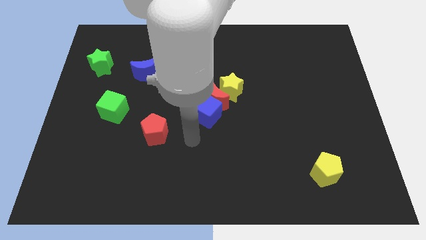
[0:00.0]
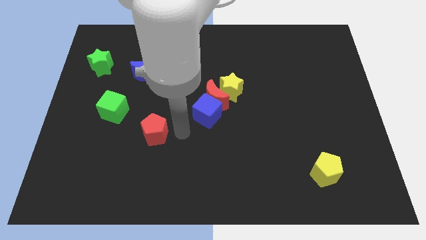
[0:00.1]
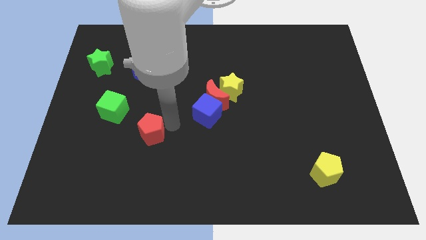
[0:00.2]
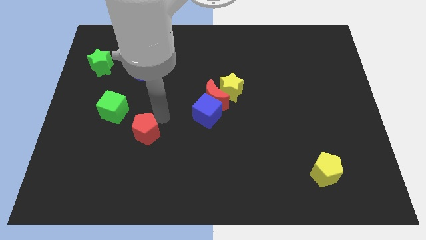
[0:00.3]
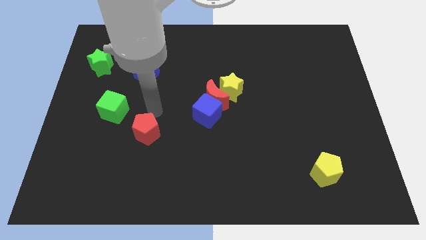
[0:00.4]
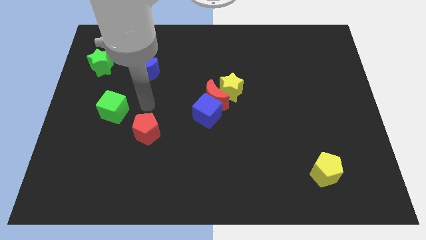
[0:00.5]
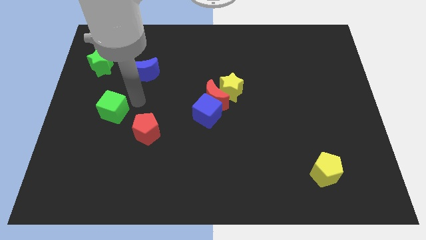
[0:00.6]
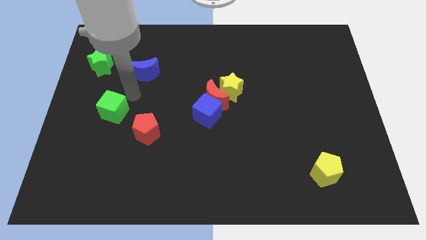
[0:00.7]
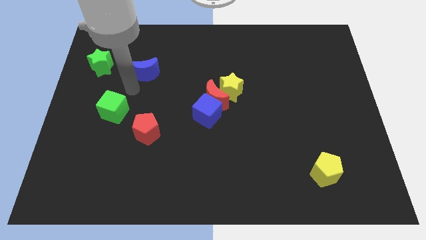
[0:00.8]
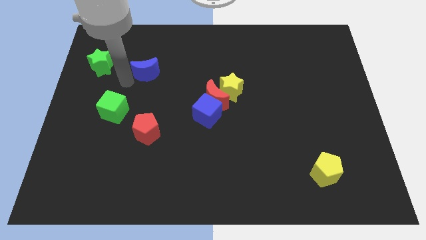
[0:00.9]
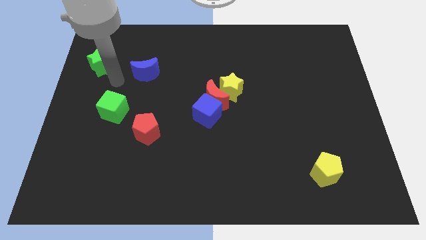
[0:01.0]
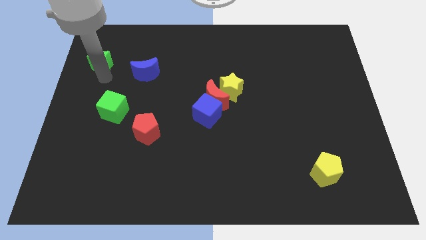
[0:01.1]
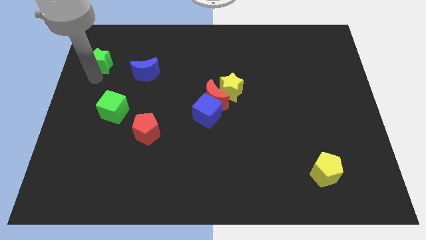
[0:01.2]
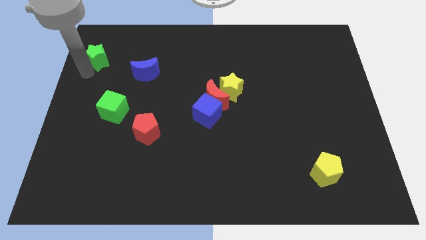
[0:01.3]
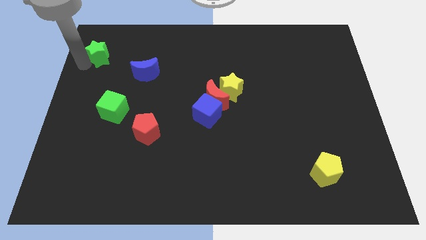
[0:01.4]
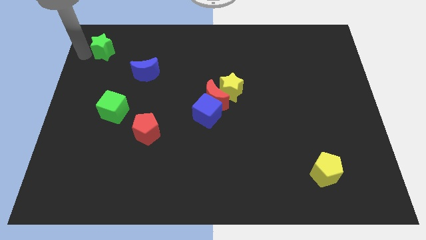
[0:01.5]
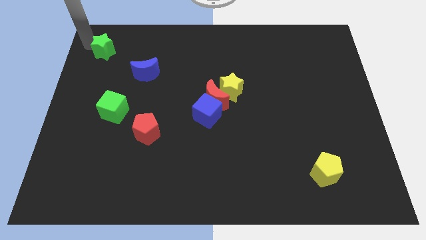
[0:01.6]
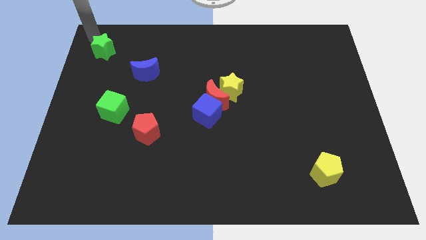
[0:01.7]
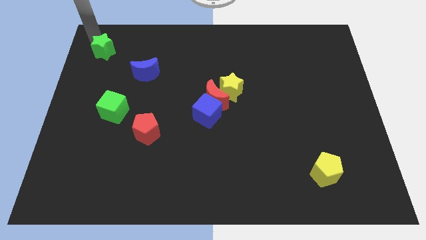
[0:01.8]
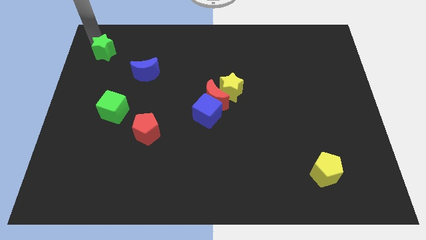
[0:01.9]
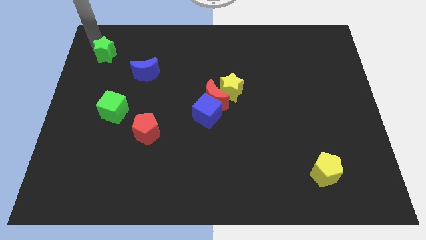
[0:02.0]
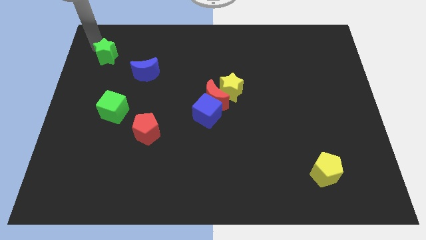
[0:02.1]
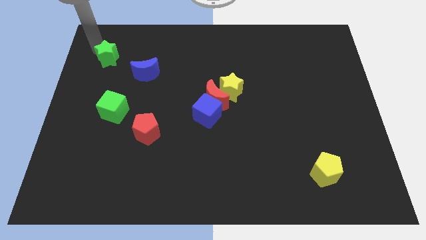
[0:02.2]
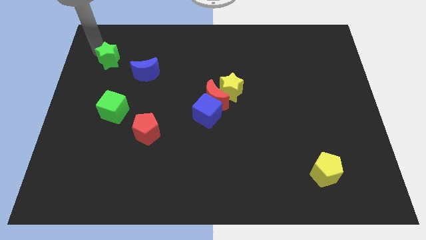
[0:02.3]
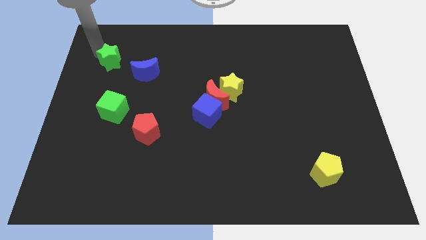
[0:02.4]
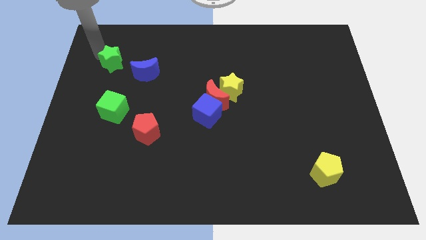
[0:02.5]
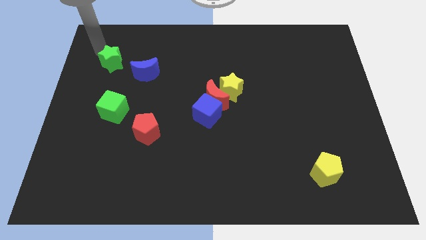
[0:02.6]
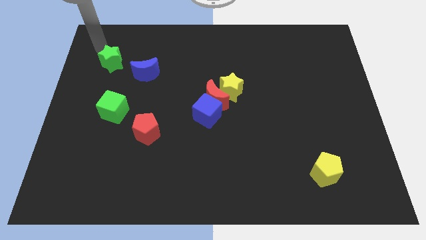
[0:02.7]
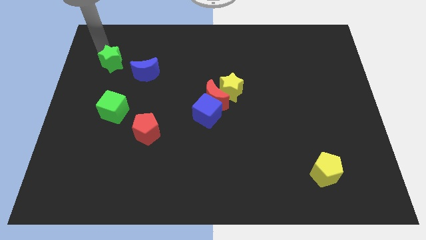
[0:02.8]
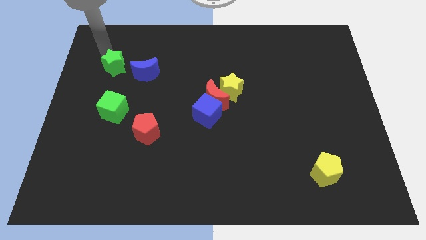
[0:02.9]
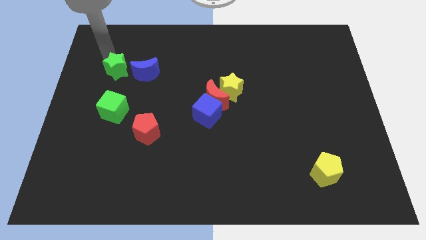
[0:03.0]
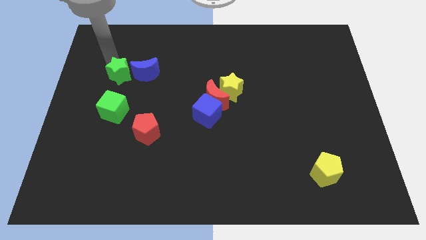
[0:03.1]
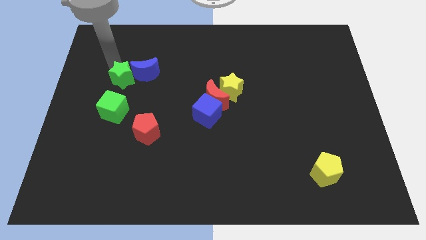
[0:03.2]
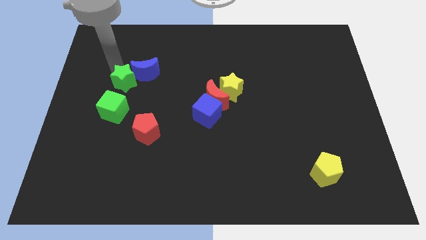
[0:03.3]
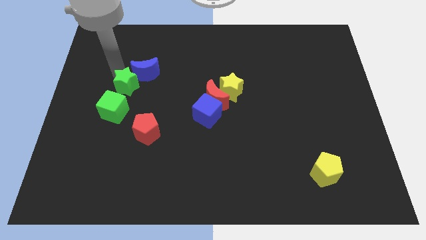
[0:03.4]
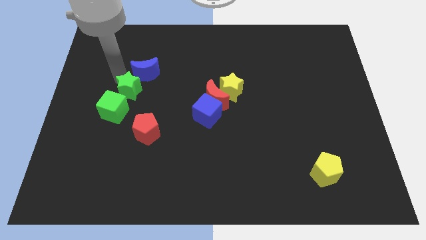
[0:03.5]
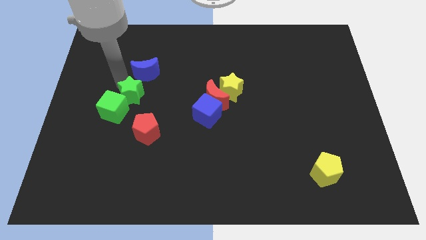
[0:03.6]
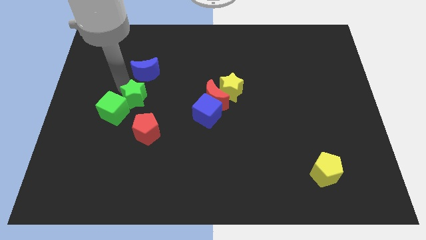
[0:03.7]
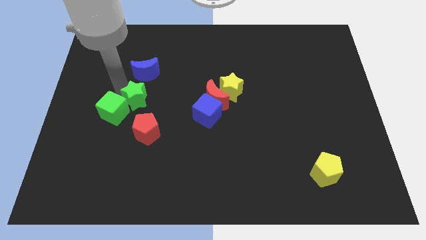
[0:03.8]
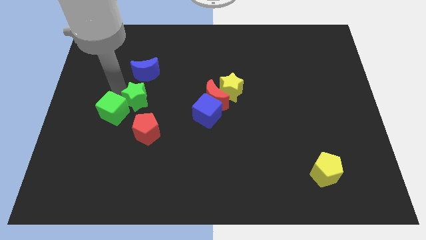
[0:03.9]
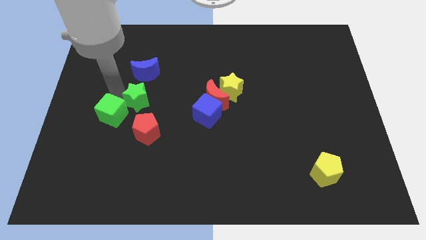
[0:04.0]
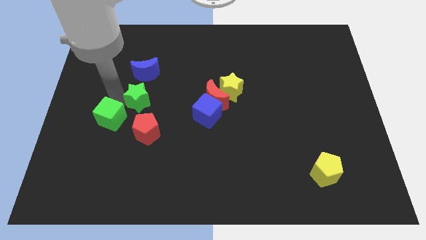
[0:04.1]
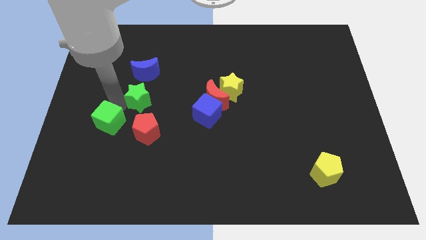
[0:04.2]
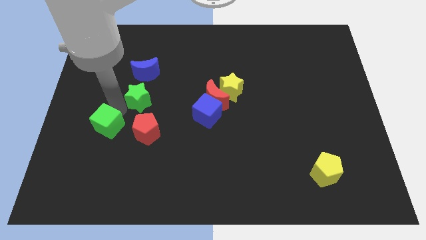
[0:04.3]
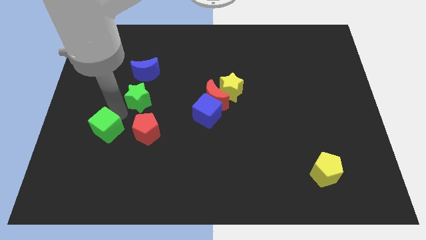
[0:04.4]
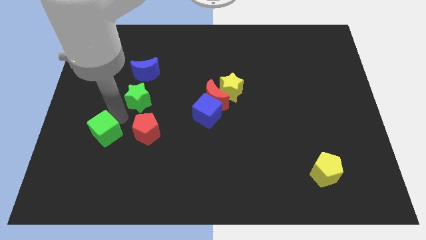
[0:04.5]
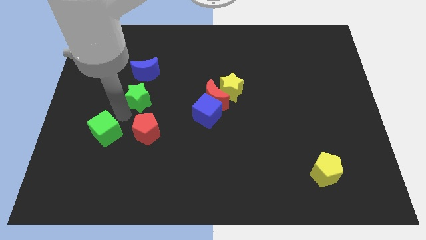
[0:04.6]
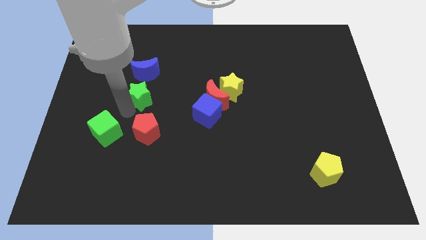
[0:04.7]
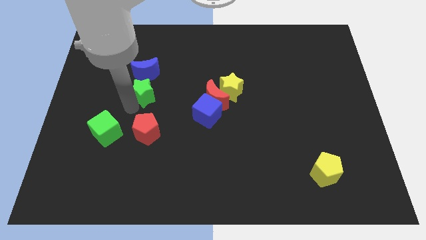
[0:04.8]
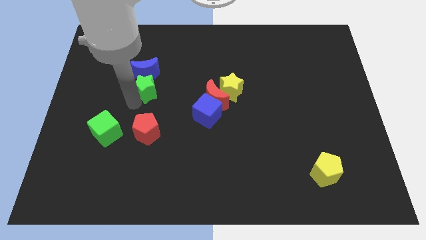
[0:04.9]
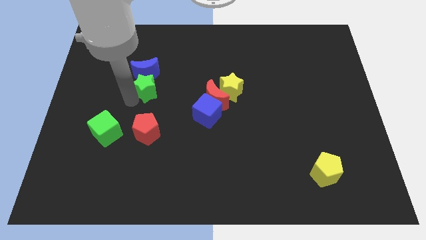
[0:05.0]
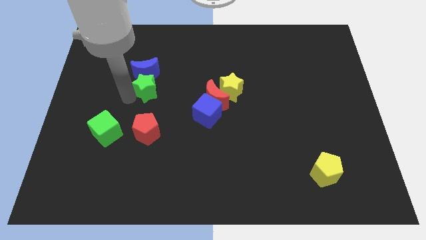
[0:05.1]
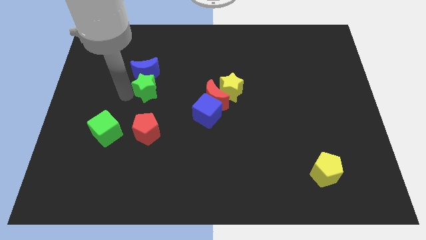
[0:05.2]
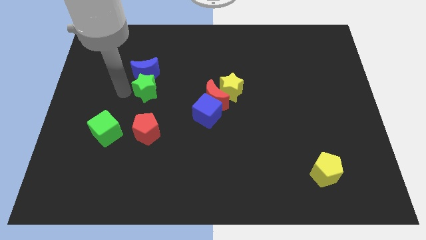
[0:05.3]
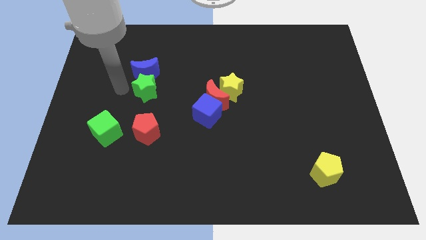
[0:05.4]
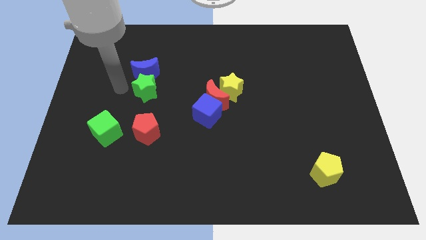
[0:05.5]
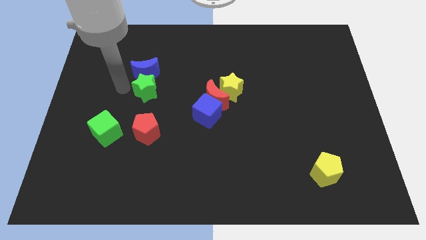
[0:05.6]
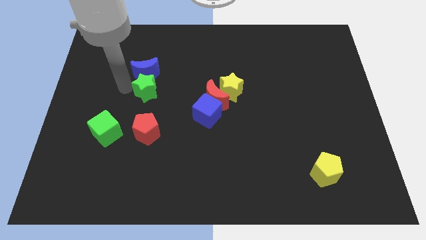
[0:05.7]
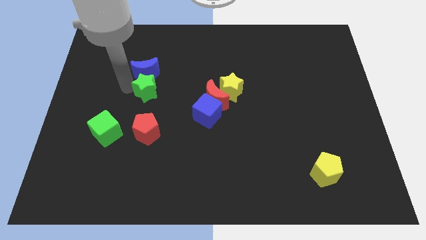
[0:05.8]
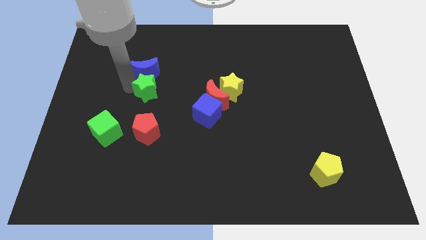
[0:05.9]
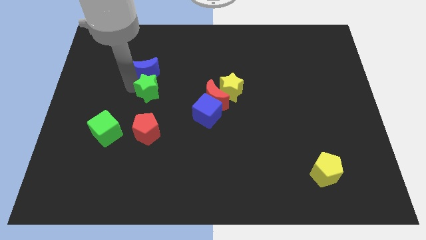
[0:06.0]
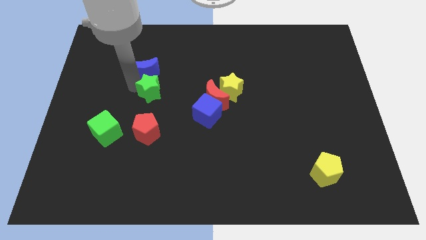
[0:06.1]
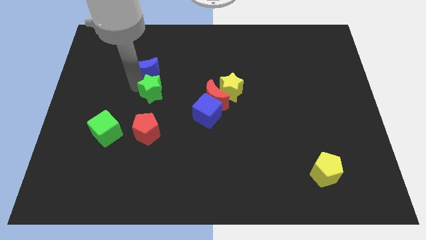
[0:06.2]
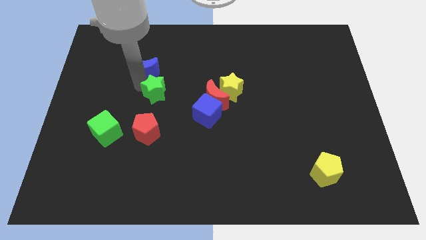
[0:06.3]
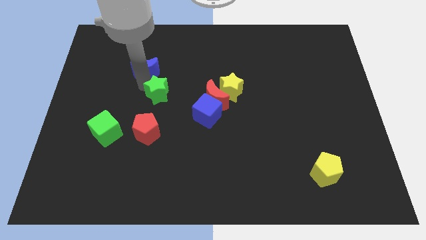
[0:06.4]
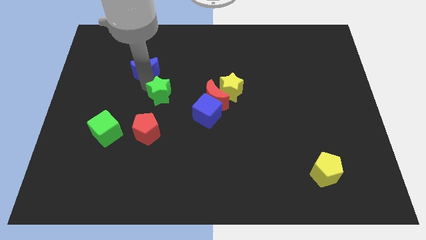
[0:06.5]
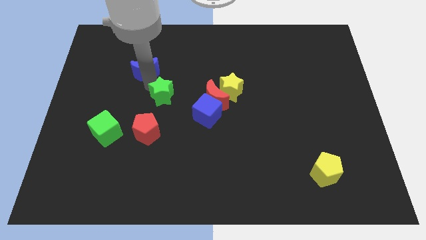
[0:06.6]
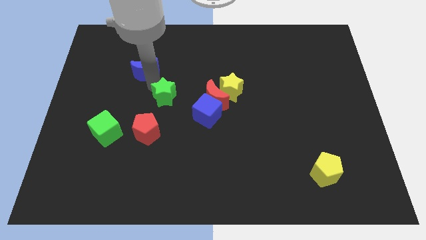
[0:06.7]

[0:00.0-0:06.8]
slide the green star to the top left side of the blue cube
